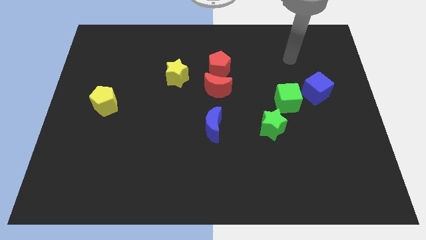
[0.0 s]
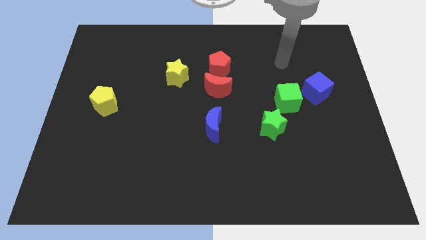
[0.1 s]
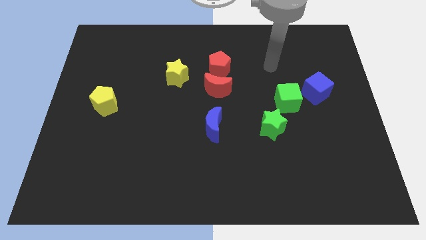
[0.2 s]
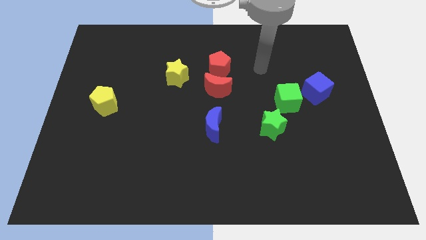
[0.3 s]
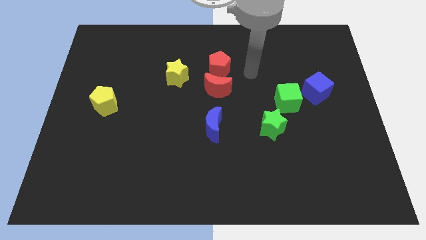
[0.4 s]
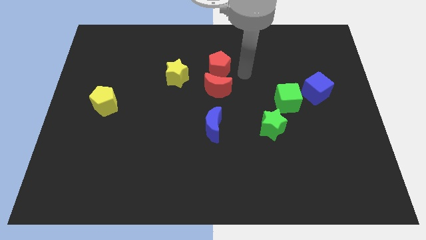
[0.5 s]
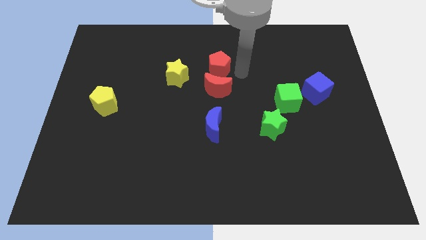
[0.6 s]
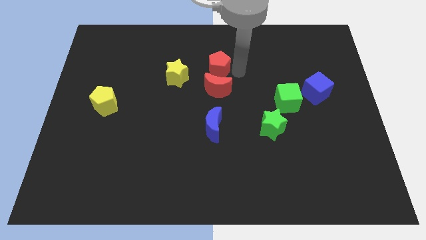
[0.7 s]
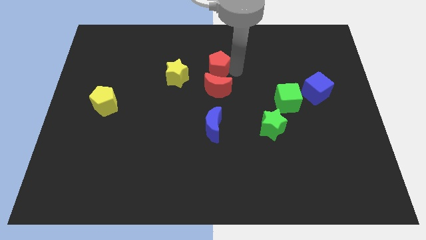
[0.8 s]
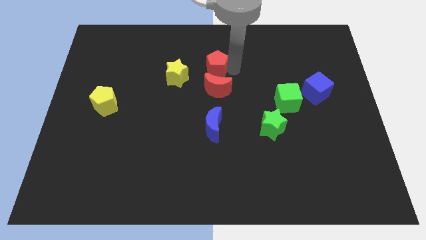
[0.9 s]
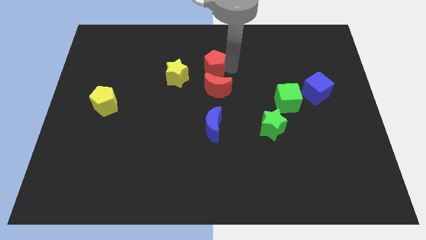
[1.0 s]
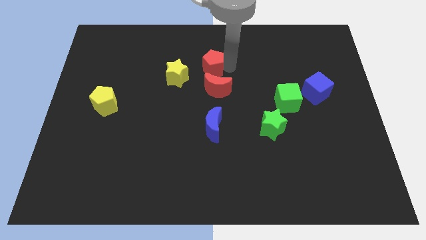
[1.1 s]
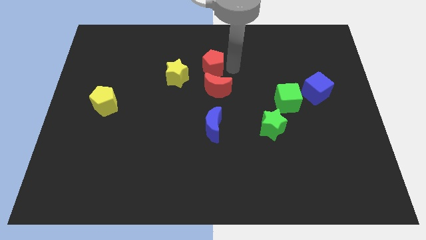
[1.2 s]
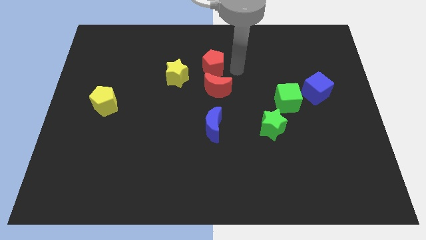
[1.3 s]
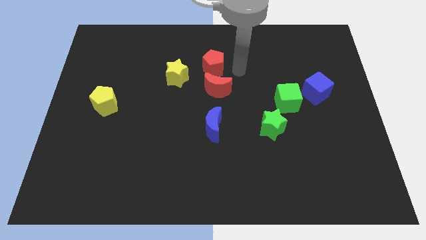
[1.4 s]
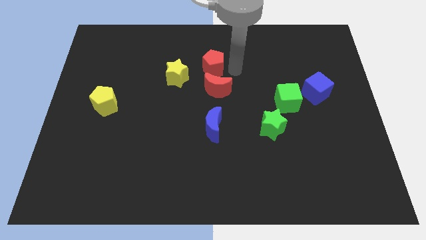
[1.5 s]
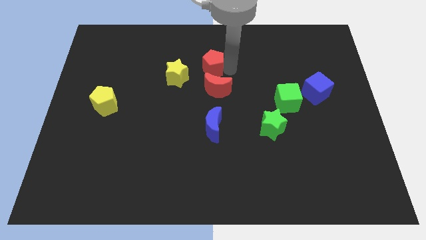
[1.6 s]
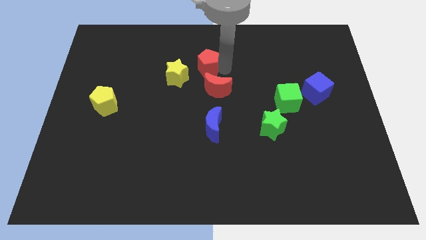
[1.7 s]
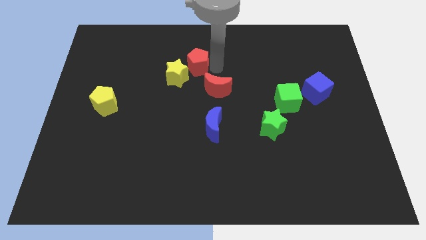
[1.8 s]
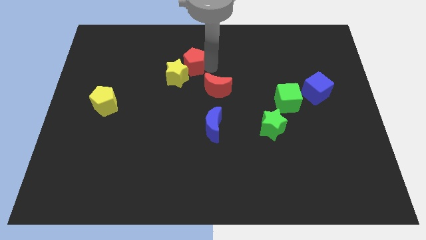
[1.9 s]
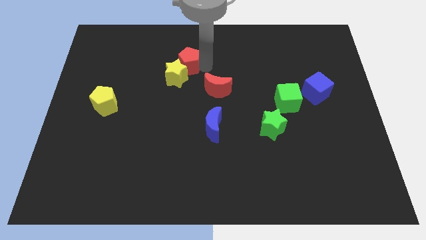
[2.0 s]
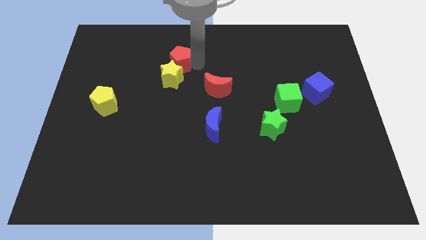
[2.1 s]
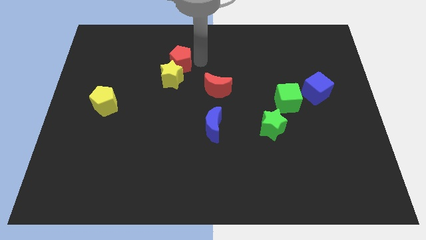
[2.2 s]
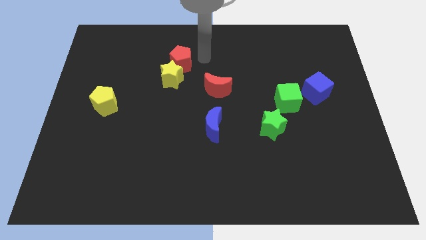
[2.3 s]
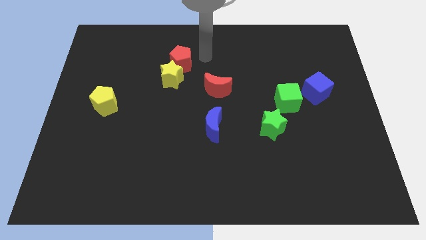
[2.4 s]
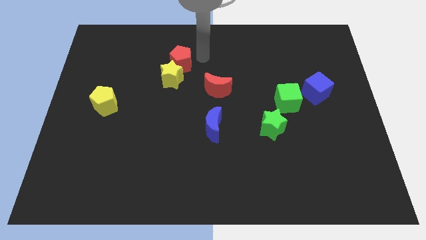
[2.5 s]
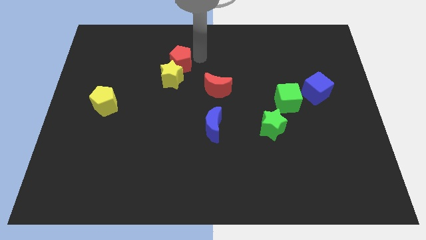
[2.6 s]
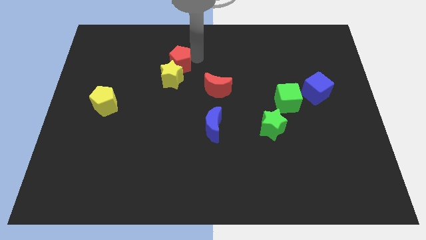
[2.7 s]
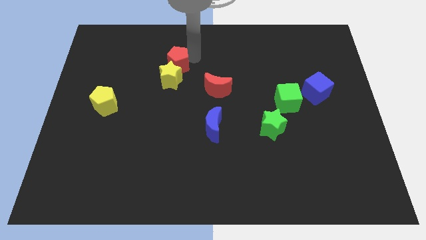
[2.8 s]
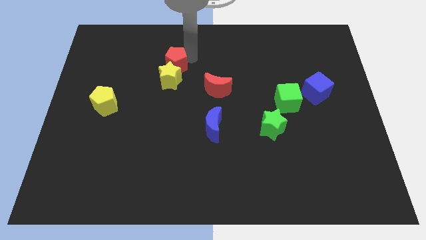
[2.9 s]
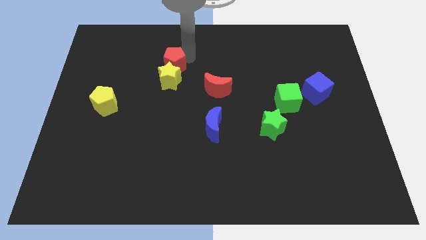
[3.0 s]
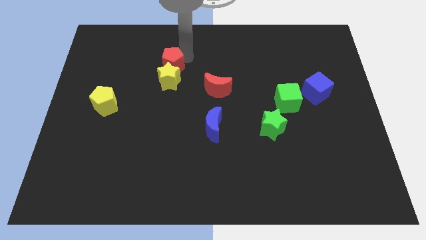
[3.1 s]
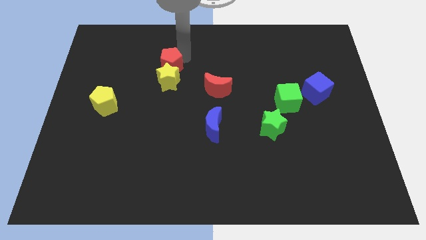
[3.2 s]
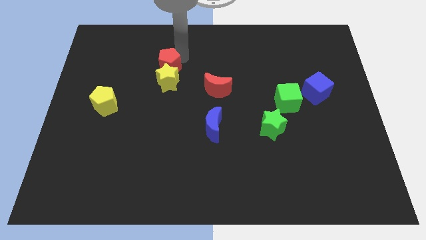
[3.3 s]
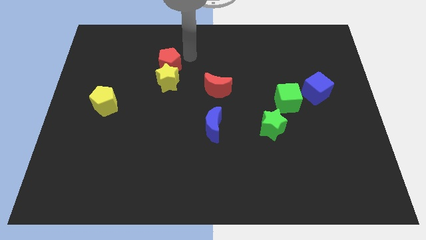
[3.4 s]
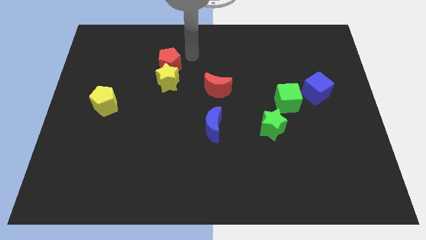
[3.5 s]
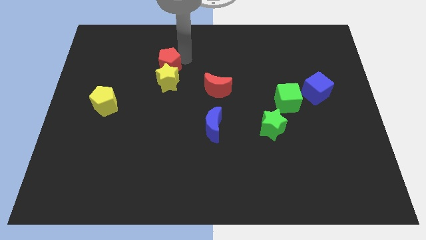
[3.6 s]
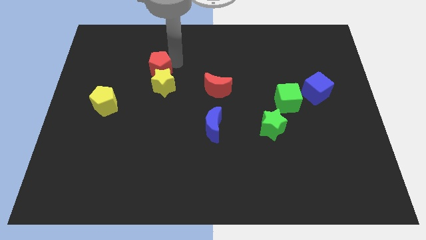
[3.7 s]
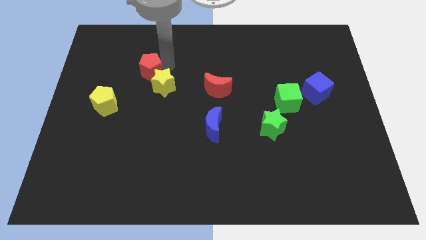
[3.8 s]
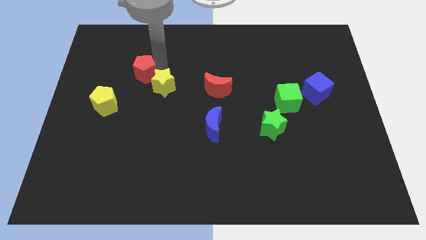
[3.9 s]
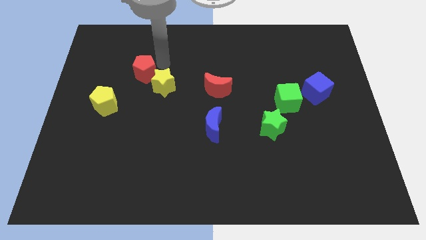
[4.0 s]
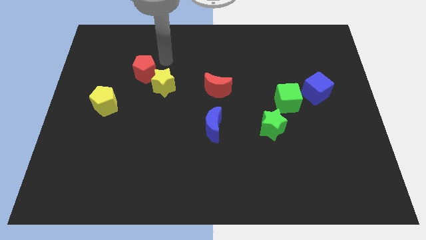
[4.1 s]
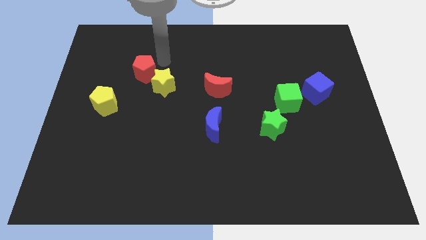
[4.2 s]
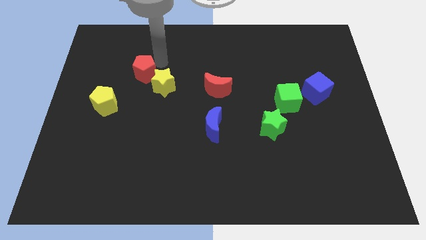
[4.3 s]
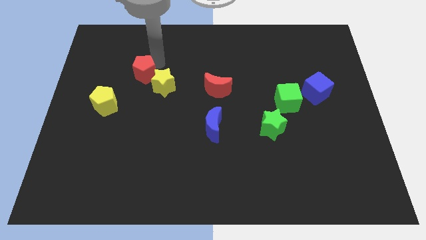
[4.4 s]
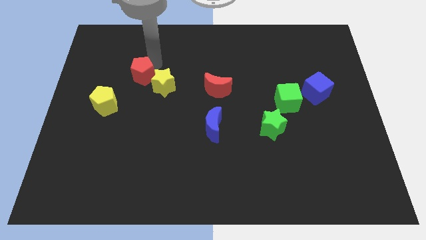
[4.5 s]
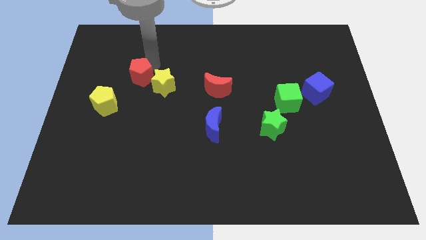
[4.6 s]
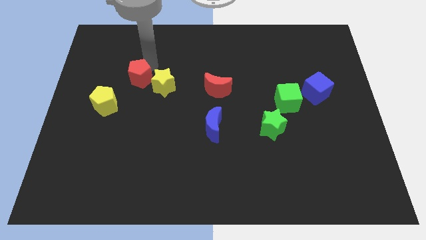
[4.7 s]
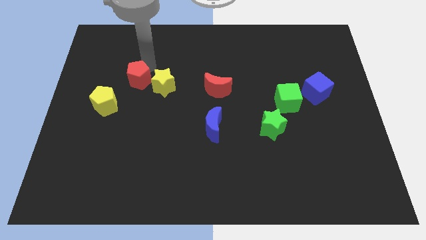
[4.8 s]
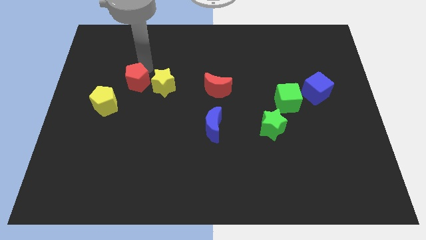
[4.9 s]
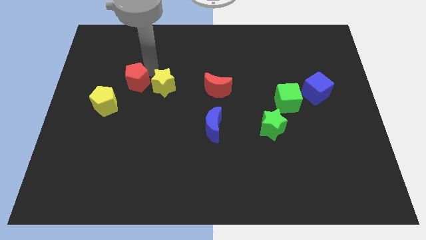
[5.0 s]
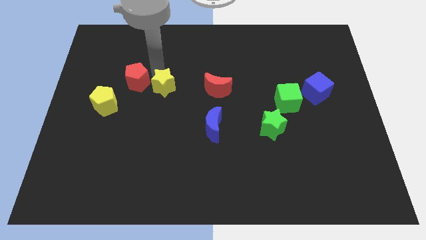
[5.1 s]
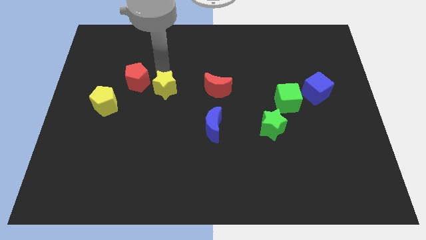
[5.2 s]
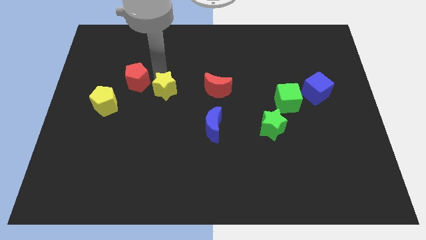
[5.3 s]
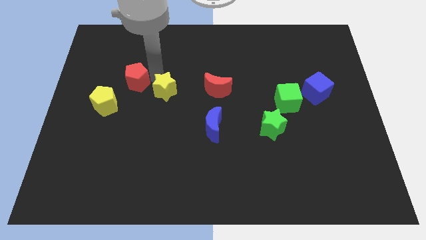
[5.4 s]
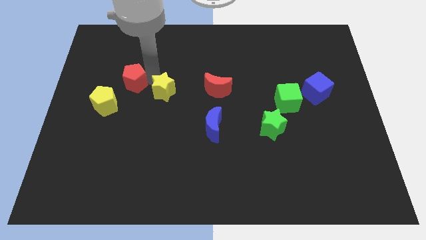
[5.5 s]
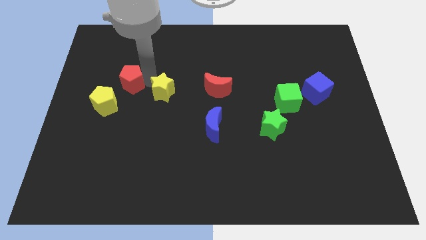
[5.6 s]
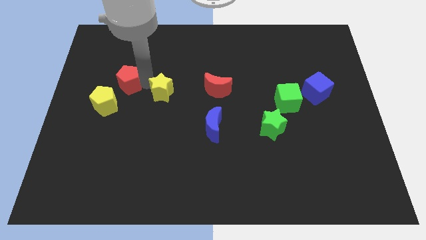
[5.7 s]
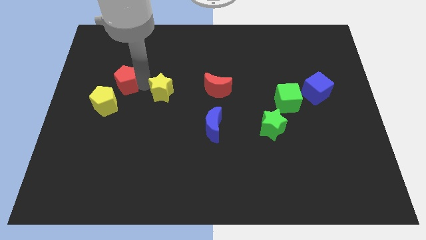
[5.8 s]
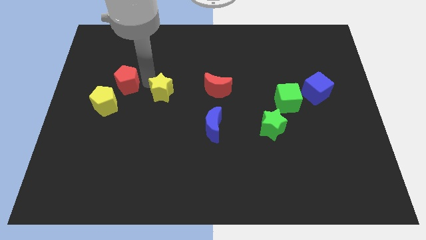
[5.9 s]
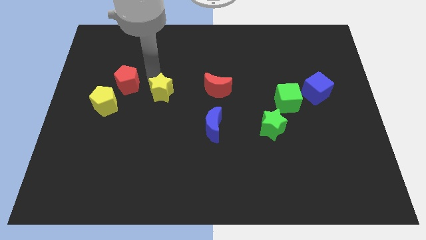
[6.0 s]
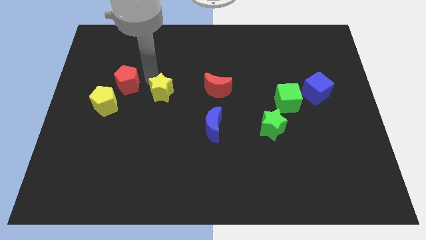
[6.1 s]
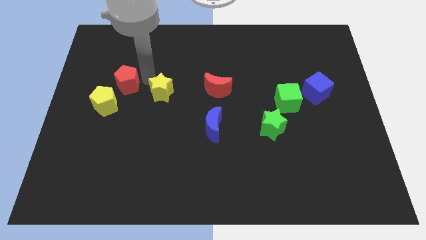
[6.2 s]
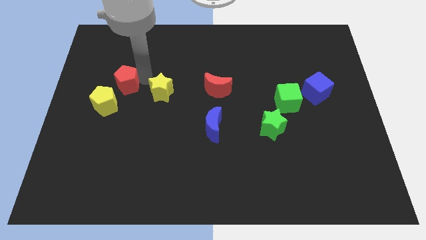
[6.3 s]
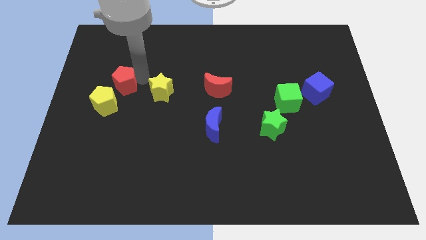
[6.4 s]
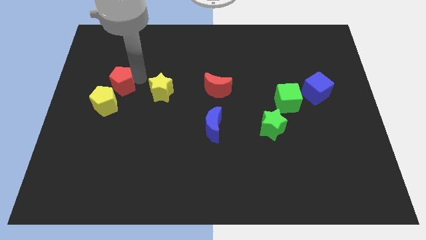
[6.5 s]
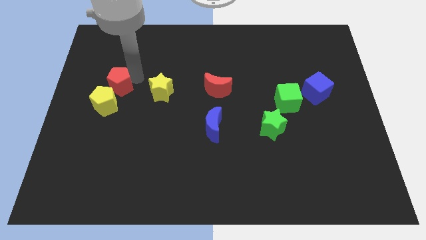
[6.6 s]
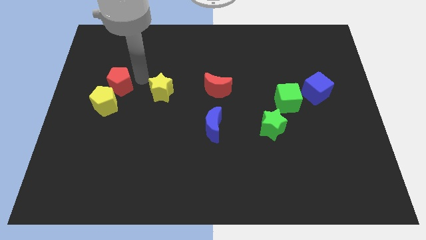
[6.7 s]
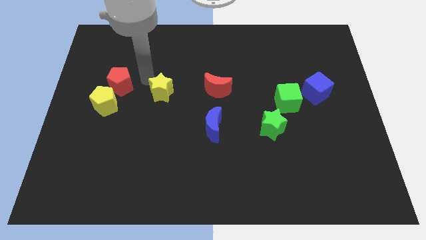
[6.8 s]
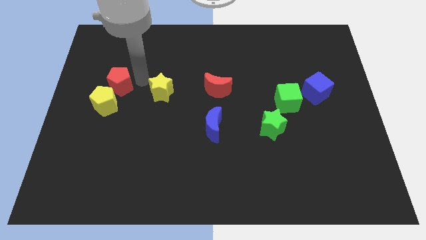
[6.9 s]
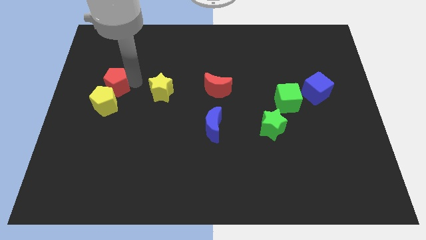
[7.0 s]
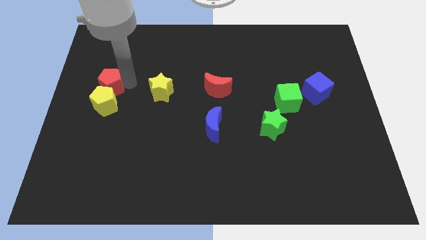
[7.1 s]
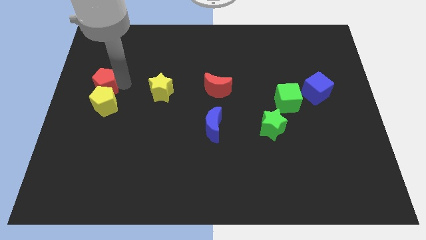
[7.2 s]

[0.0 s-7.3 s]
put the red pentagon to the center left
